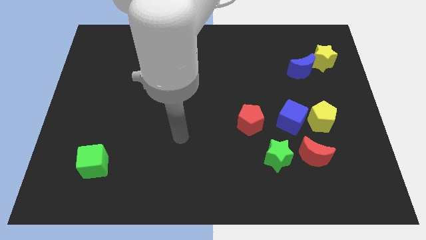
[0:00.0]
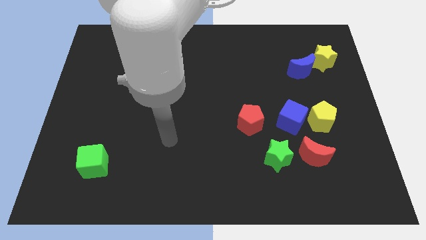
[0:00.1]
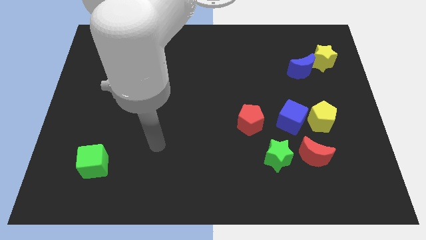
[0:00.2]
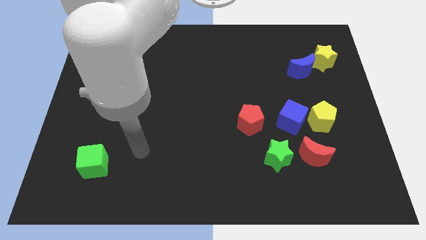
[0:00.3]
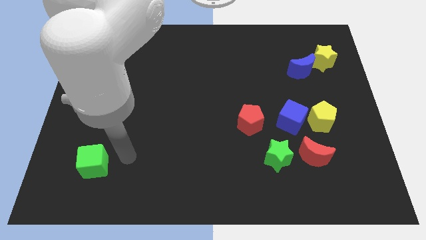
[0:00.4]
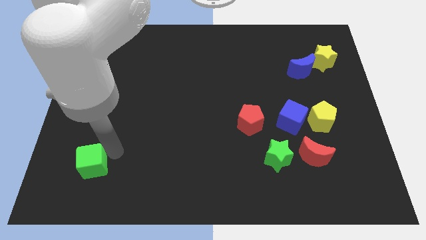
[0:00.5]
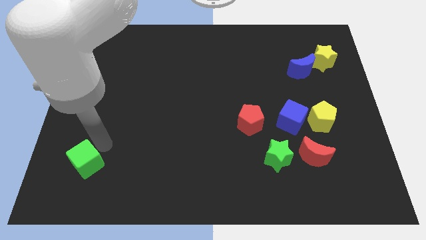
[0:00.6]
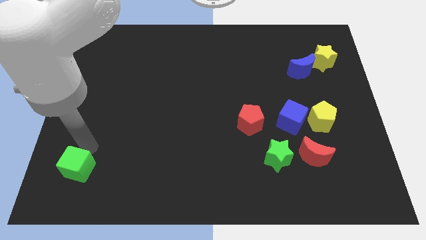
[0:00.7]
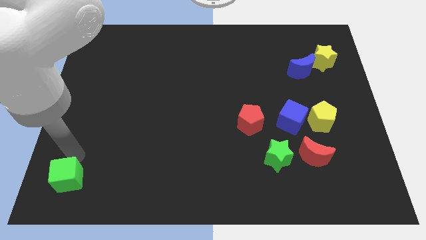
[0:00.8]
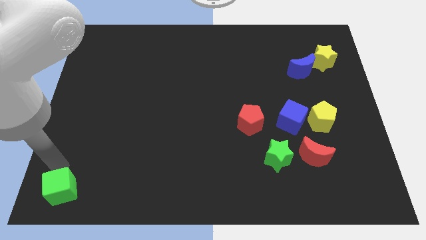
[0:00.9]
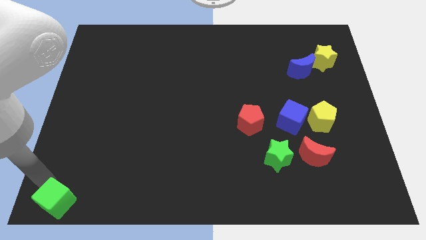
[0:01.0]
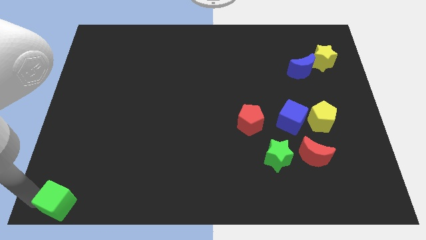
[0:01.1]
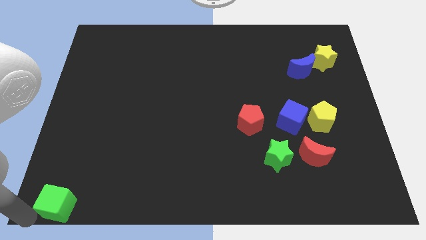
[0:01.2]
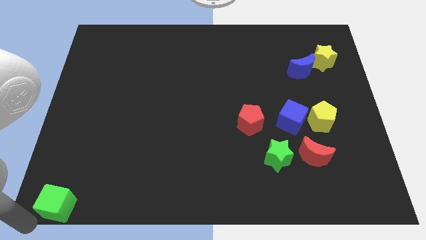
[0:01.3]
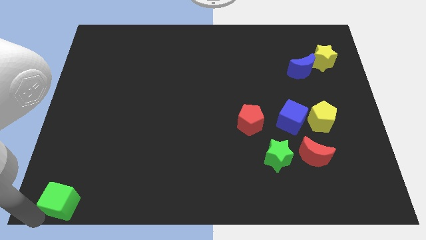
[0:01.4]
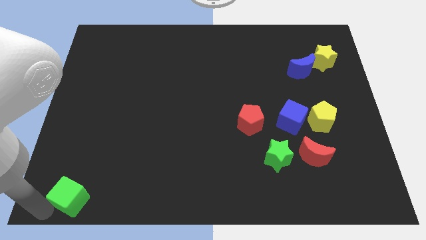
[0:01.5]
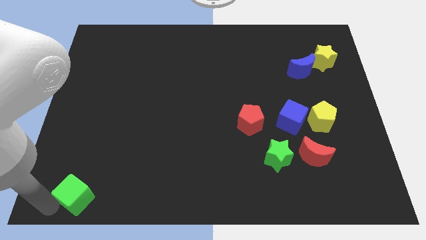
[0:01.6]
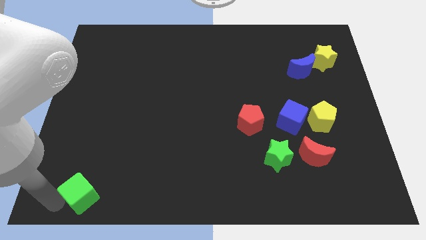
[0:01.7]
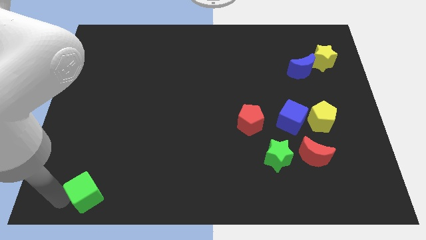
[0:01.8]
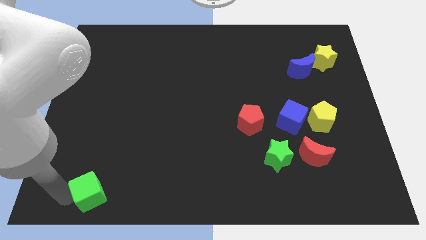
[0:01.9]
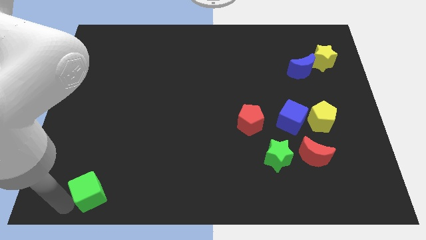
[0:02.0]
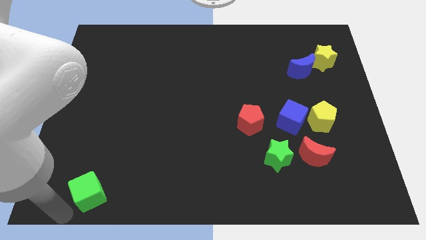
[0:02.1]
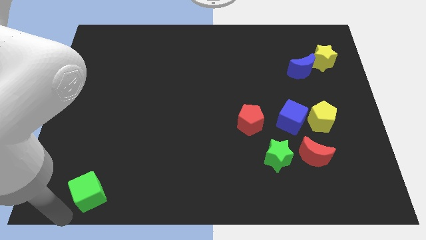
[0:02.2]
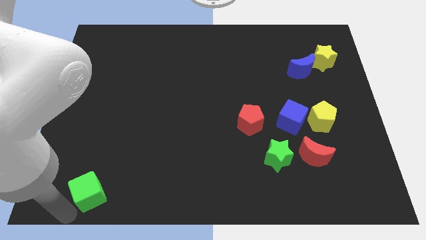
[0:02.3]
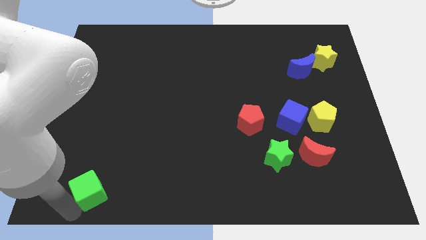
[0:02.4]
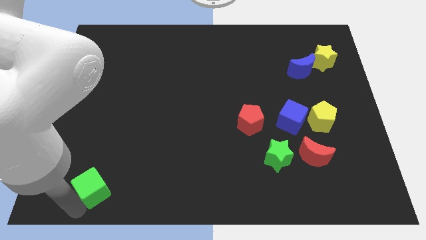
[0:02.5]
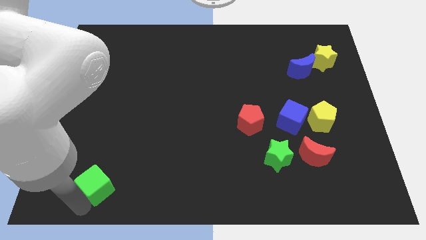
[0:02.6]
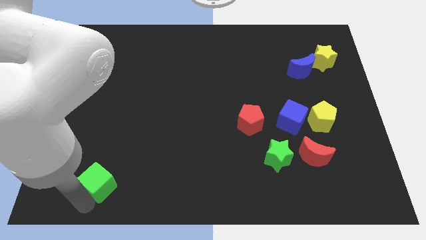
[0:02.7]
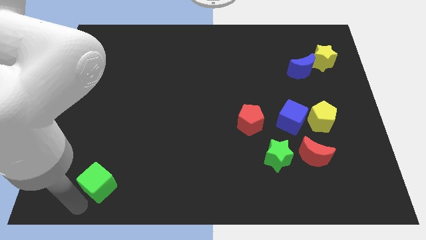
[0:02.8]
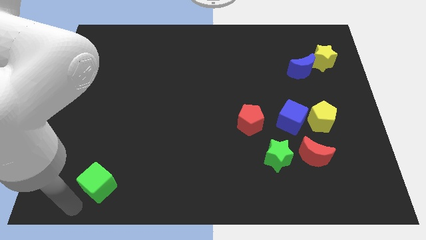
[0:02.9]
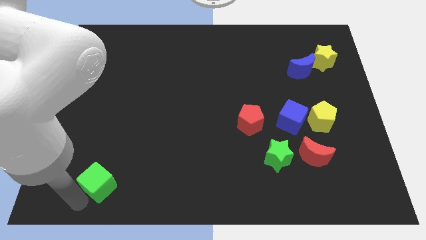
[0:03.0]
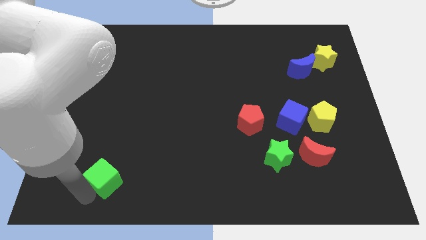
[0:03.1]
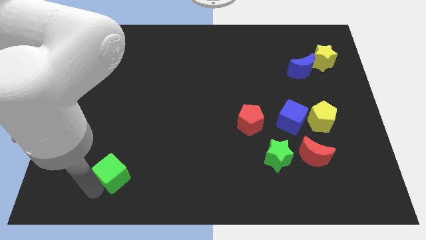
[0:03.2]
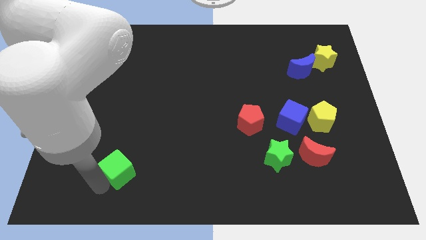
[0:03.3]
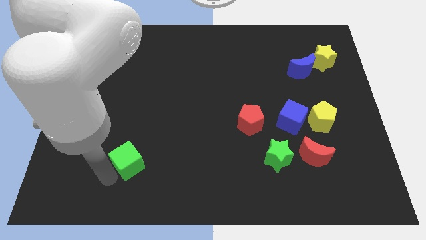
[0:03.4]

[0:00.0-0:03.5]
slide the green cube somewhat to the right

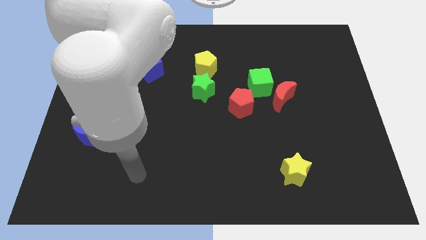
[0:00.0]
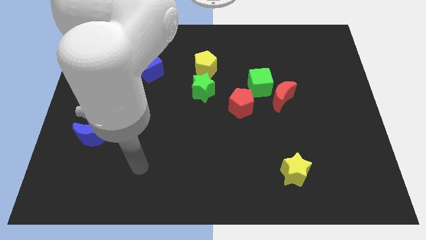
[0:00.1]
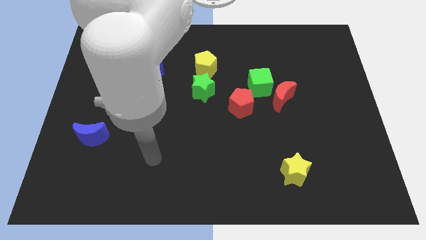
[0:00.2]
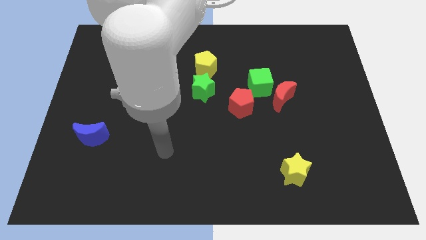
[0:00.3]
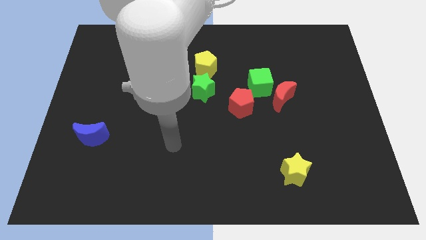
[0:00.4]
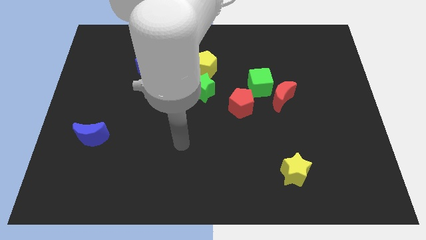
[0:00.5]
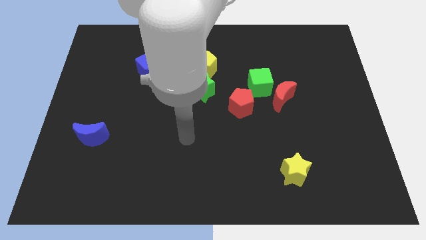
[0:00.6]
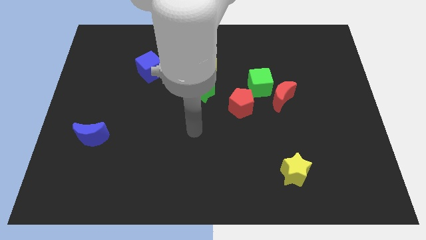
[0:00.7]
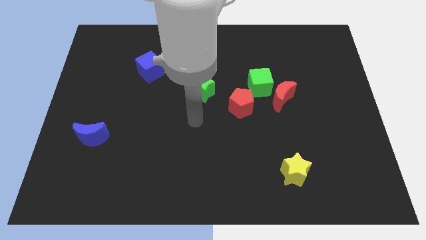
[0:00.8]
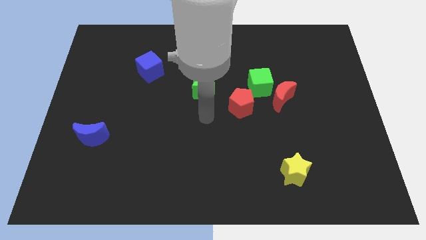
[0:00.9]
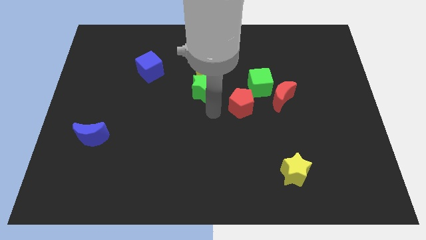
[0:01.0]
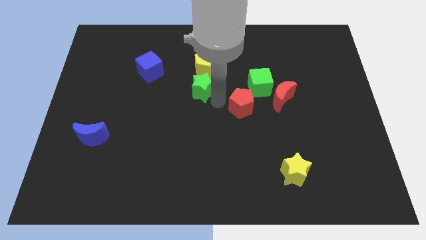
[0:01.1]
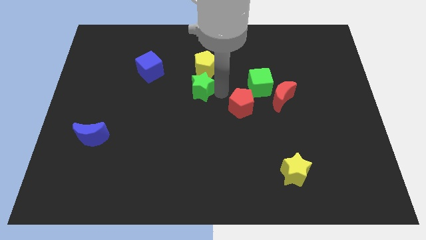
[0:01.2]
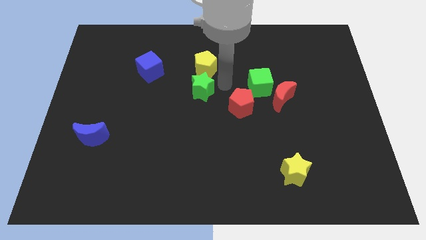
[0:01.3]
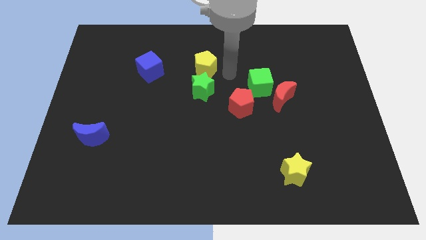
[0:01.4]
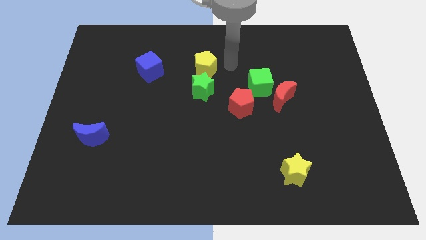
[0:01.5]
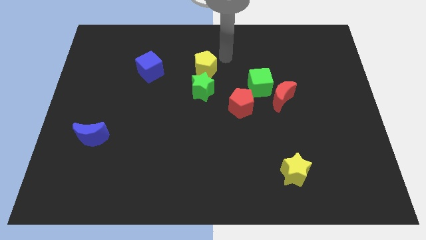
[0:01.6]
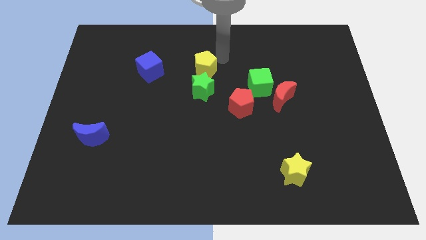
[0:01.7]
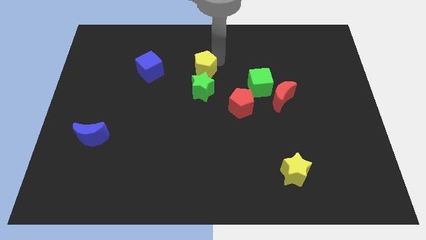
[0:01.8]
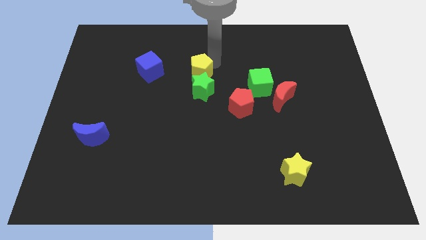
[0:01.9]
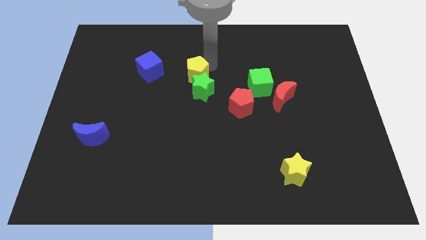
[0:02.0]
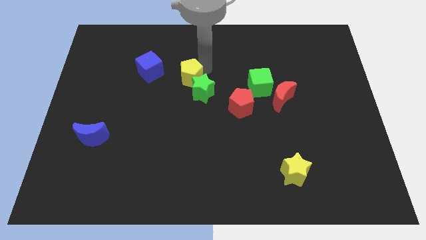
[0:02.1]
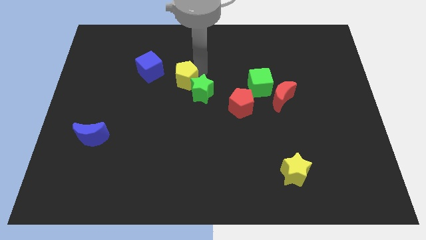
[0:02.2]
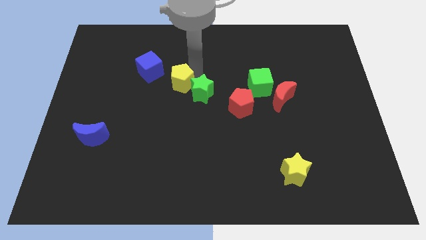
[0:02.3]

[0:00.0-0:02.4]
slide the yellow pentagon down and then to the left slightly

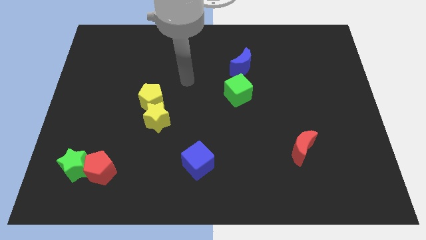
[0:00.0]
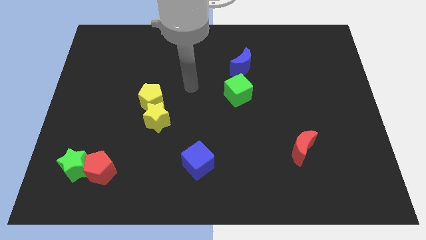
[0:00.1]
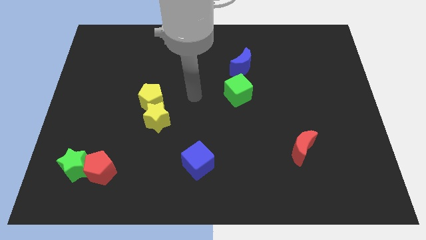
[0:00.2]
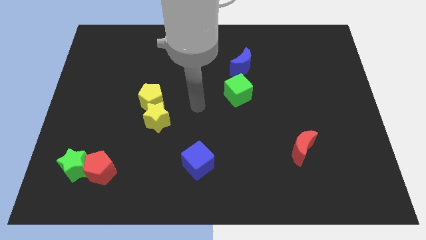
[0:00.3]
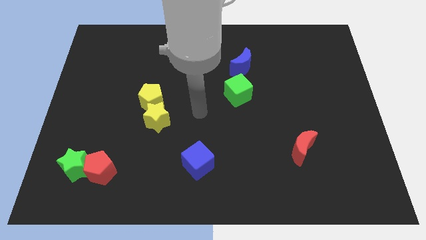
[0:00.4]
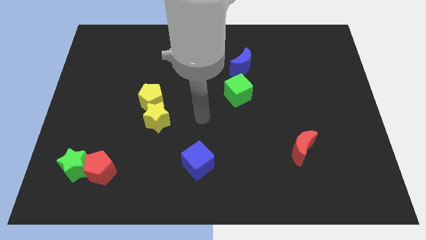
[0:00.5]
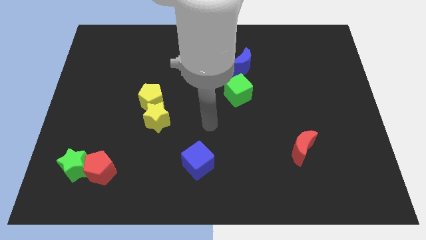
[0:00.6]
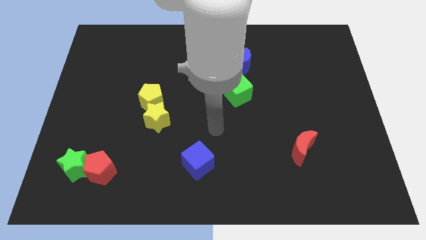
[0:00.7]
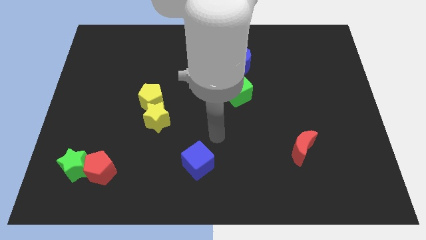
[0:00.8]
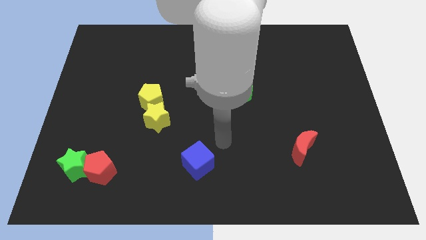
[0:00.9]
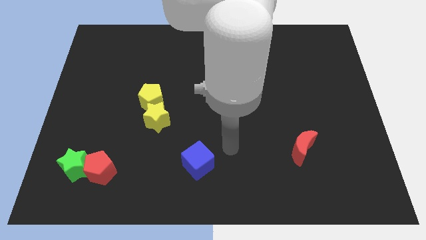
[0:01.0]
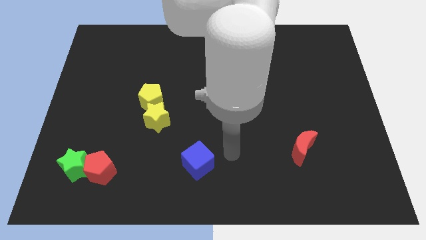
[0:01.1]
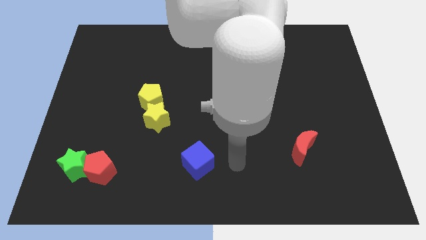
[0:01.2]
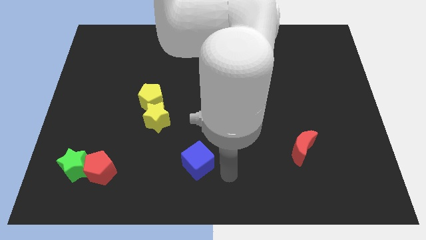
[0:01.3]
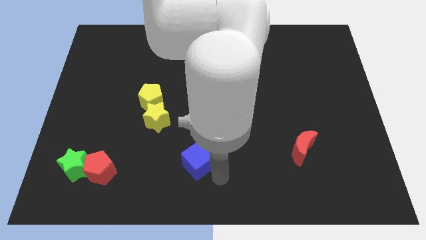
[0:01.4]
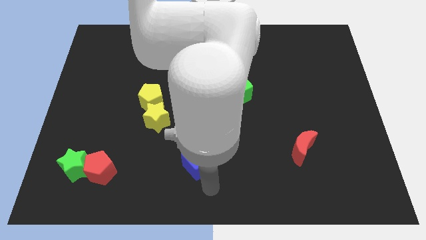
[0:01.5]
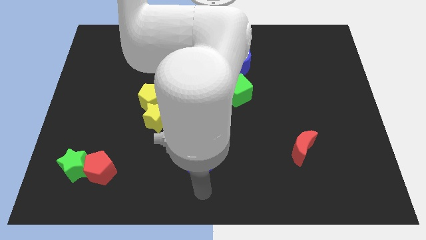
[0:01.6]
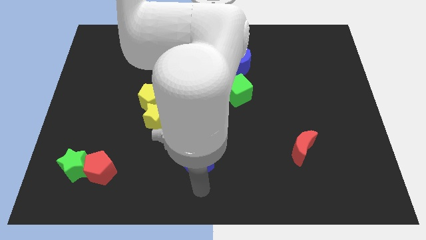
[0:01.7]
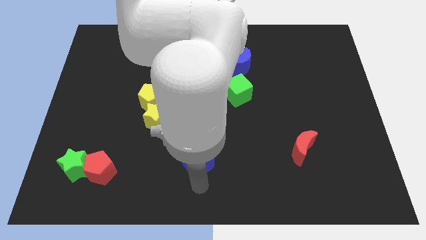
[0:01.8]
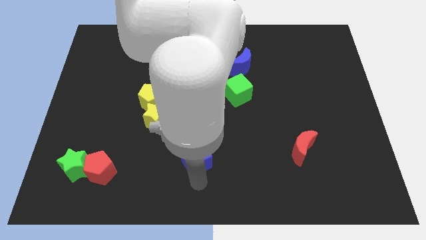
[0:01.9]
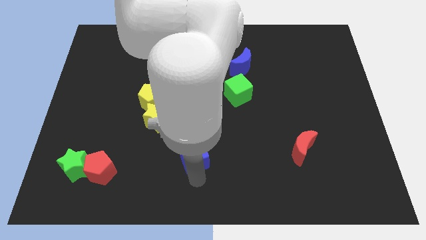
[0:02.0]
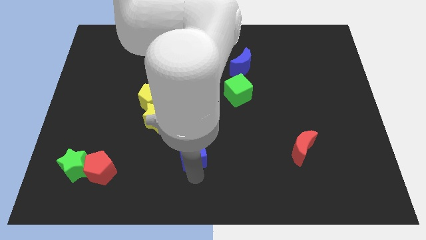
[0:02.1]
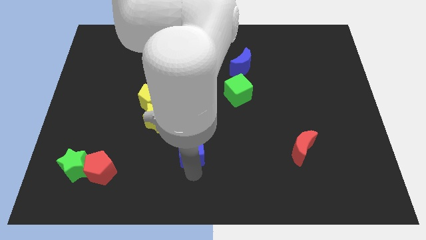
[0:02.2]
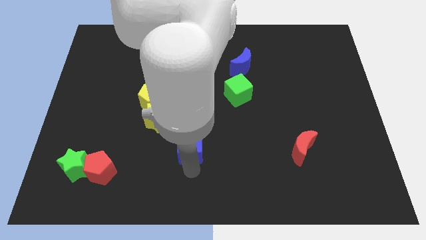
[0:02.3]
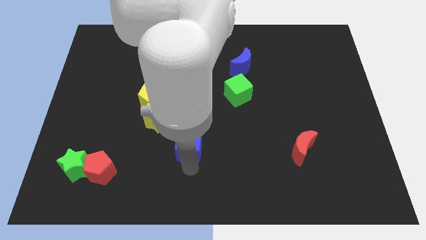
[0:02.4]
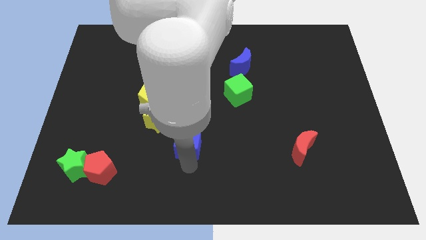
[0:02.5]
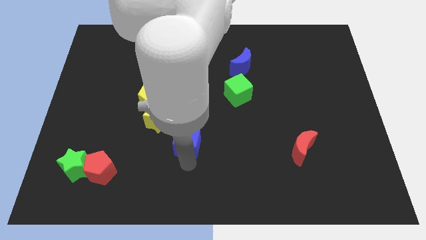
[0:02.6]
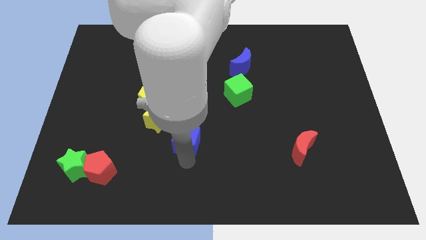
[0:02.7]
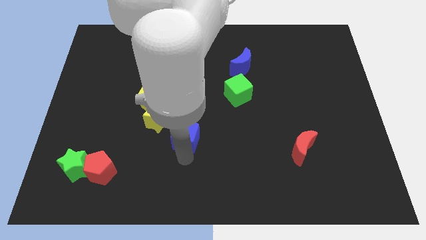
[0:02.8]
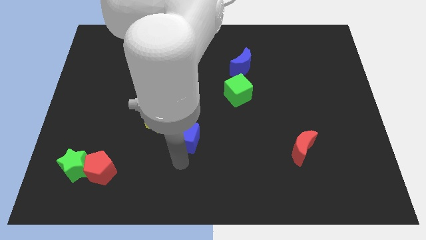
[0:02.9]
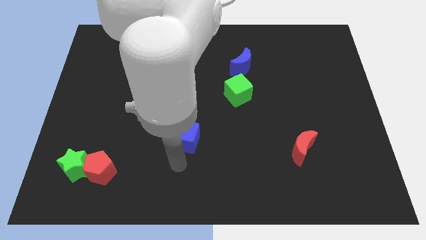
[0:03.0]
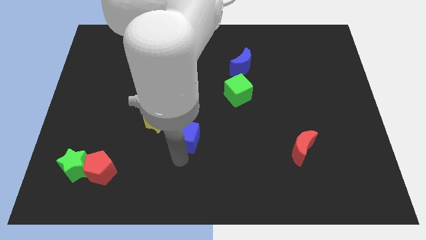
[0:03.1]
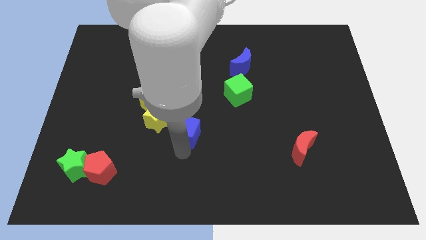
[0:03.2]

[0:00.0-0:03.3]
slightly slide the blue cube upwards
